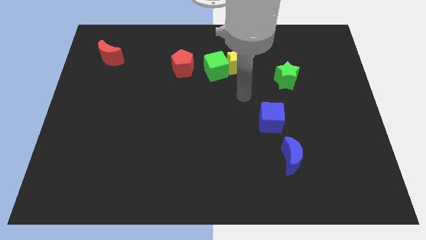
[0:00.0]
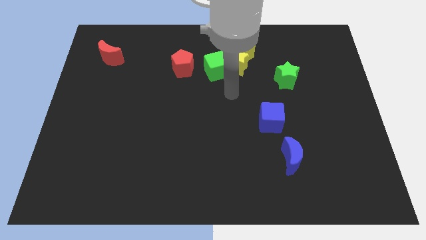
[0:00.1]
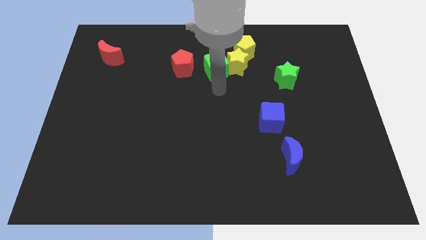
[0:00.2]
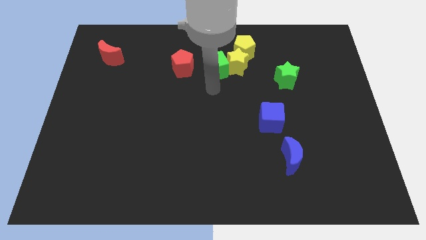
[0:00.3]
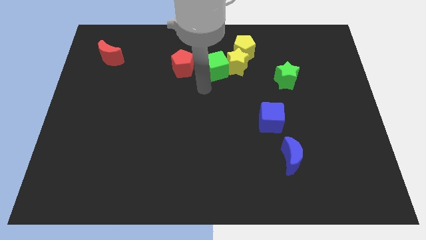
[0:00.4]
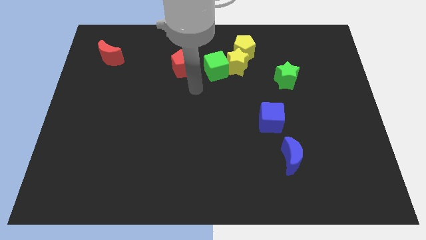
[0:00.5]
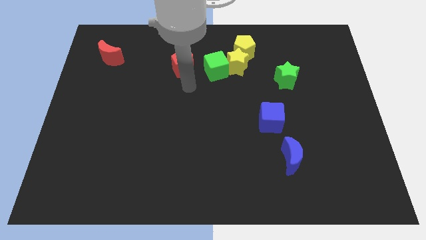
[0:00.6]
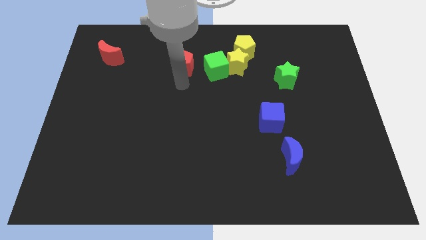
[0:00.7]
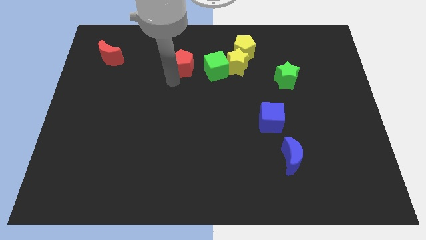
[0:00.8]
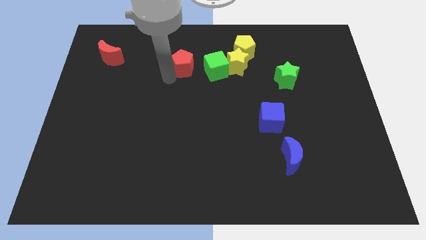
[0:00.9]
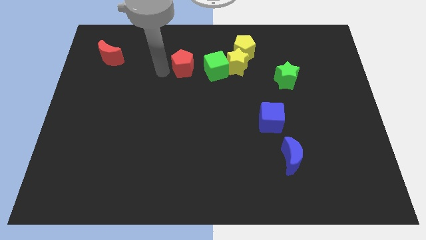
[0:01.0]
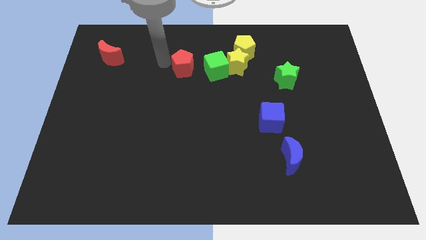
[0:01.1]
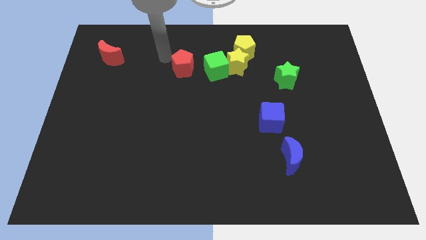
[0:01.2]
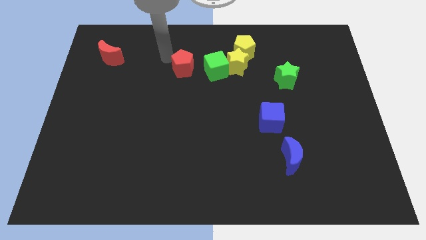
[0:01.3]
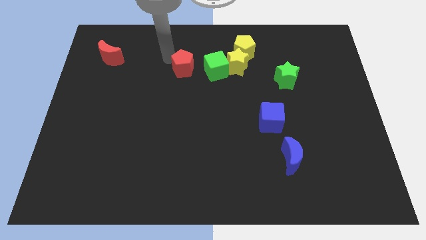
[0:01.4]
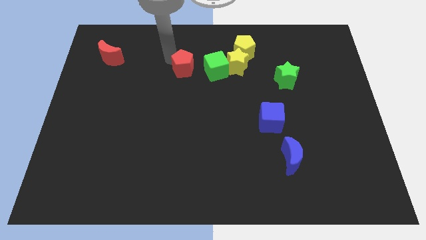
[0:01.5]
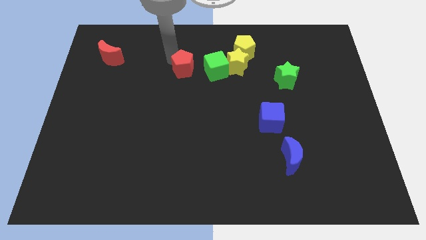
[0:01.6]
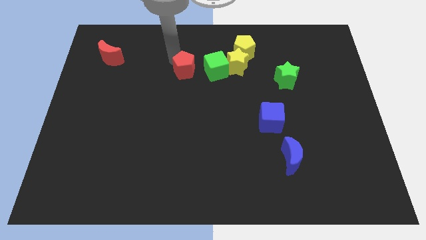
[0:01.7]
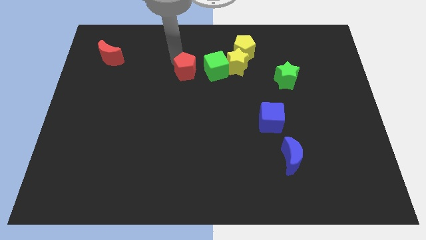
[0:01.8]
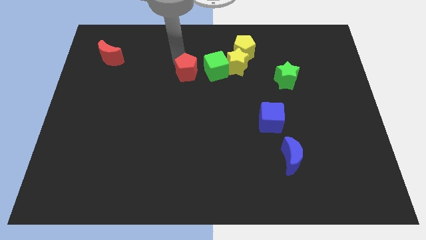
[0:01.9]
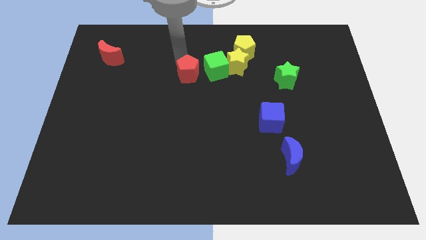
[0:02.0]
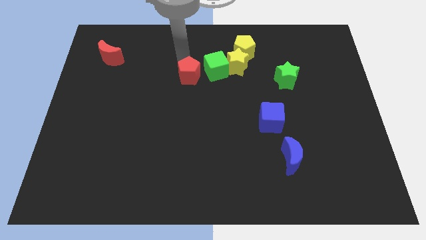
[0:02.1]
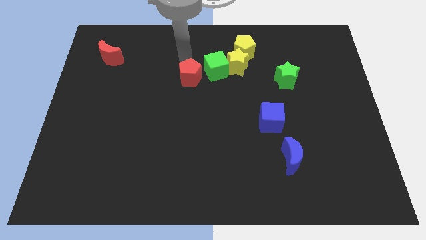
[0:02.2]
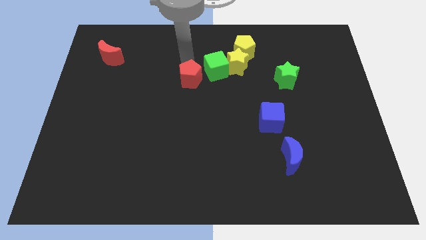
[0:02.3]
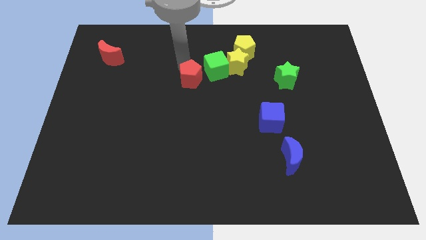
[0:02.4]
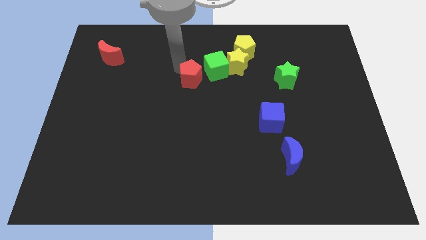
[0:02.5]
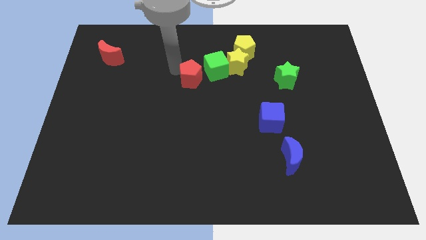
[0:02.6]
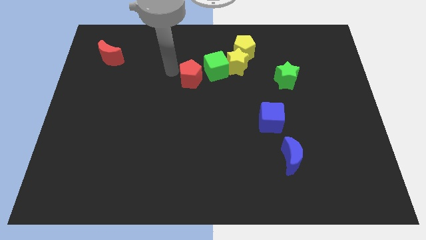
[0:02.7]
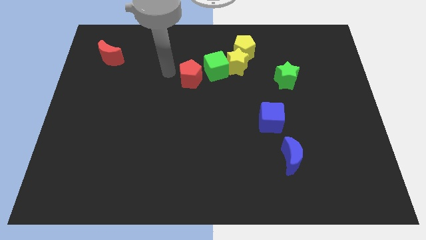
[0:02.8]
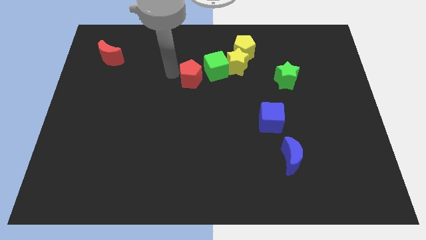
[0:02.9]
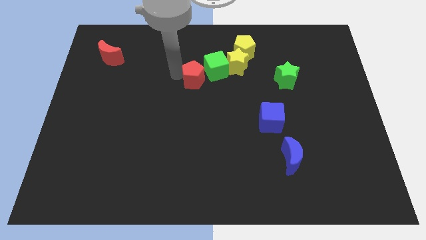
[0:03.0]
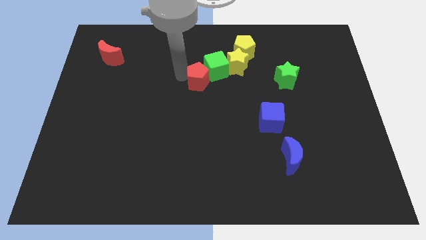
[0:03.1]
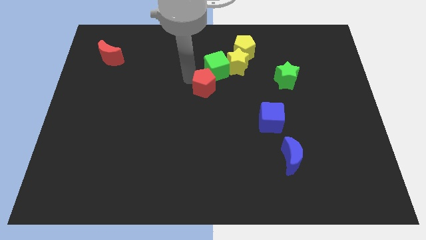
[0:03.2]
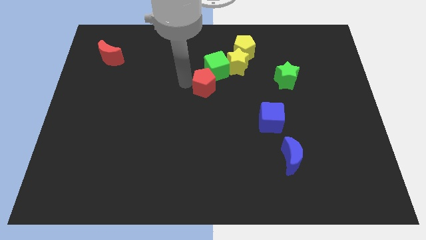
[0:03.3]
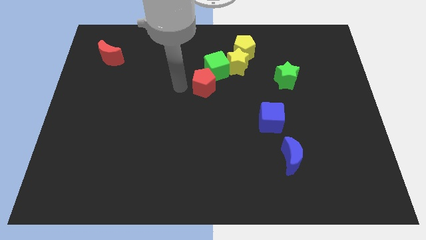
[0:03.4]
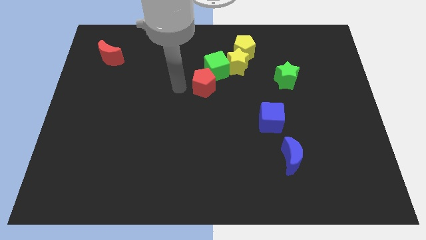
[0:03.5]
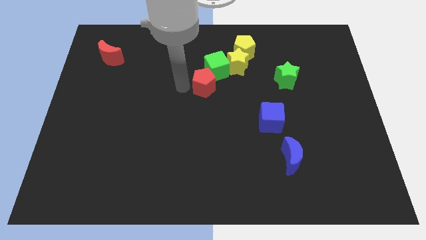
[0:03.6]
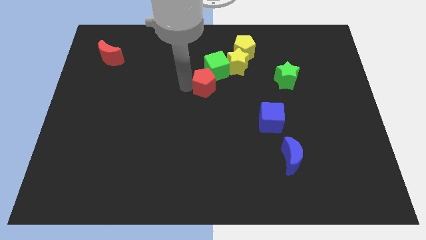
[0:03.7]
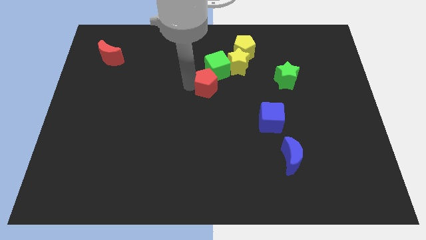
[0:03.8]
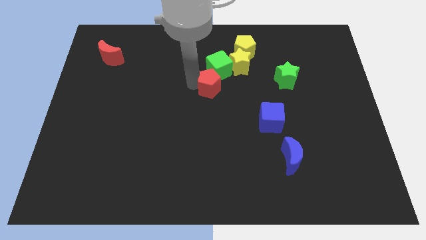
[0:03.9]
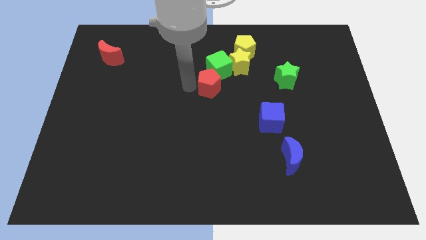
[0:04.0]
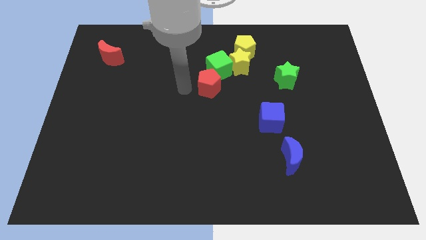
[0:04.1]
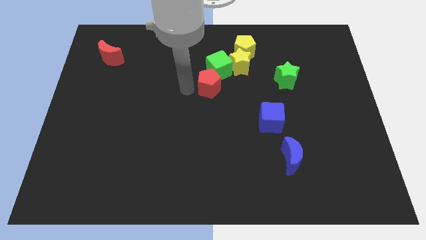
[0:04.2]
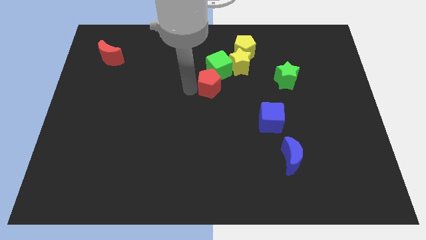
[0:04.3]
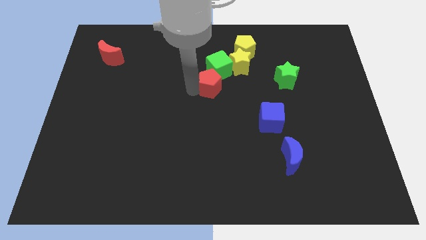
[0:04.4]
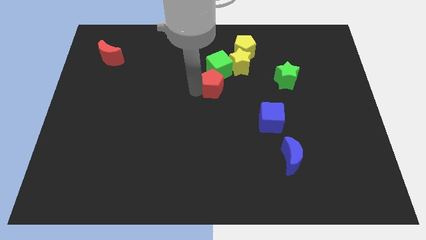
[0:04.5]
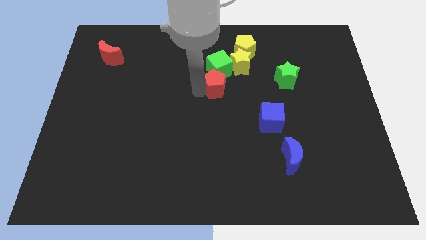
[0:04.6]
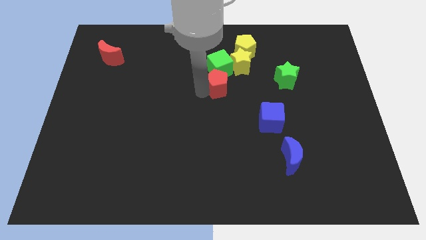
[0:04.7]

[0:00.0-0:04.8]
slide the red pentagon to the bottom right side of the green cube

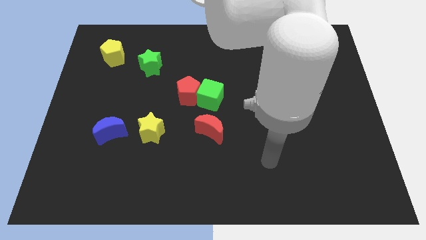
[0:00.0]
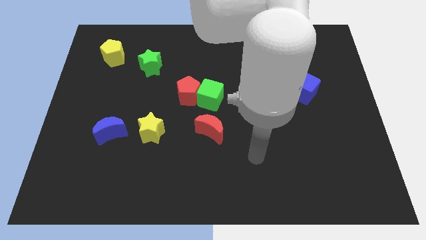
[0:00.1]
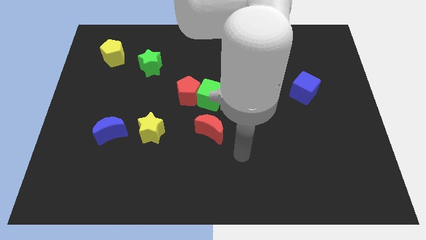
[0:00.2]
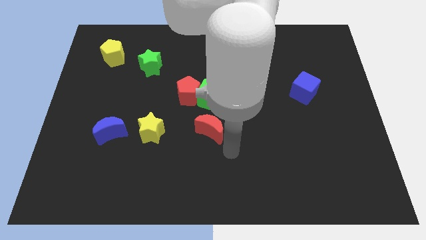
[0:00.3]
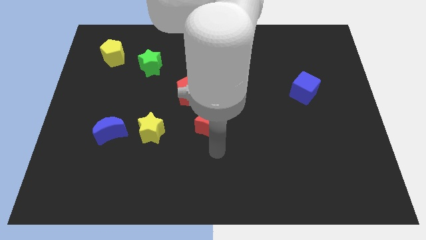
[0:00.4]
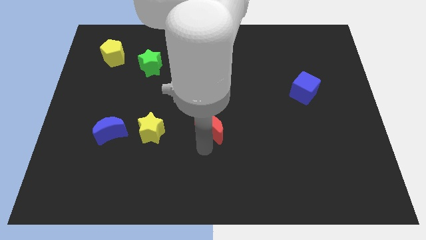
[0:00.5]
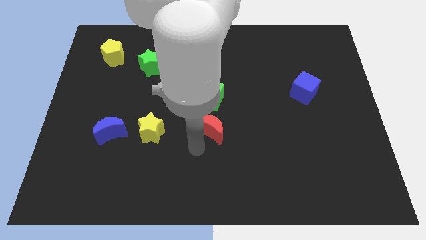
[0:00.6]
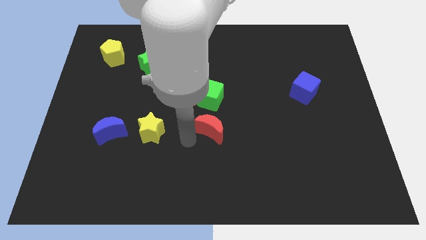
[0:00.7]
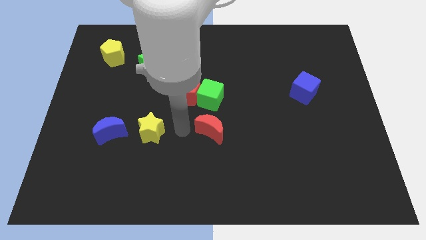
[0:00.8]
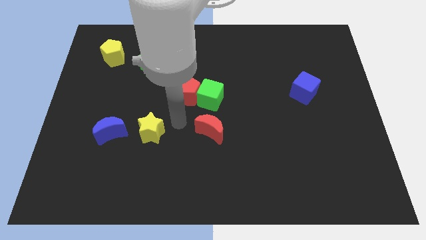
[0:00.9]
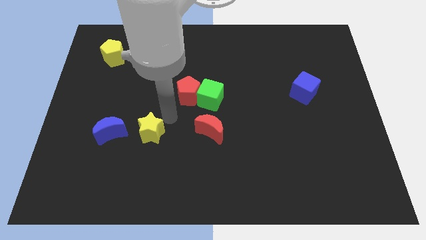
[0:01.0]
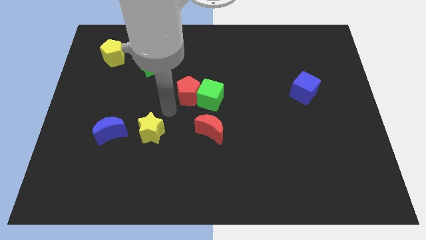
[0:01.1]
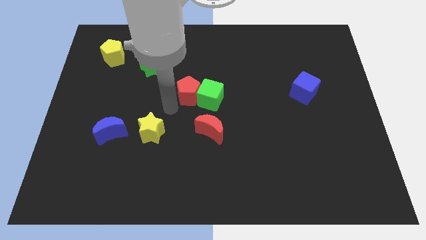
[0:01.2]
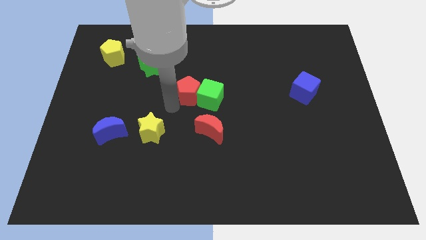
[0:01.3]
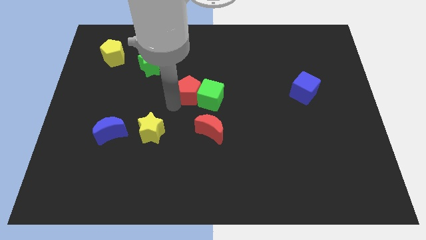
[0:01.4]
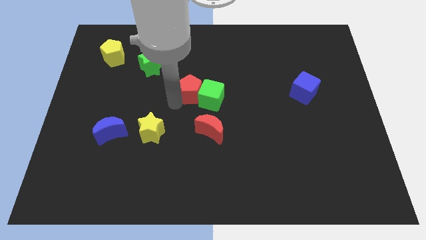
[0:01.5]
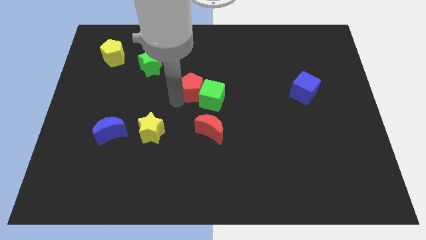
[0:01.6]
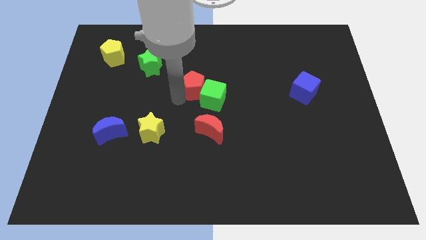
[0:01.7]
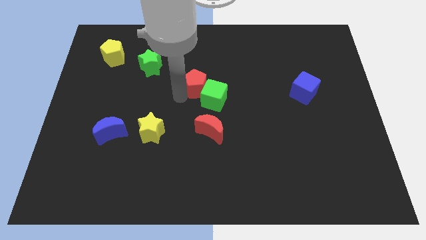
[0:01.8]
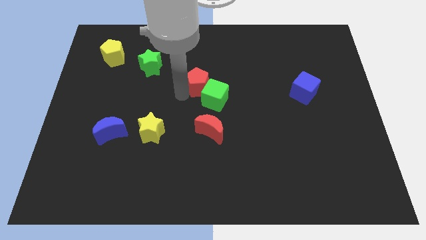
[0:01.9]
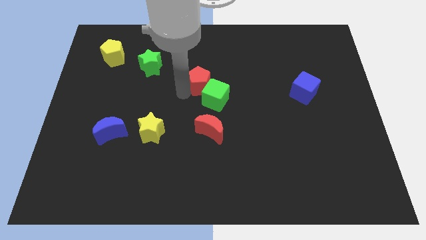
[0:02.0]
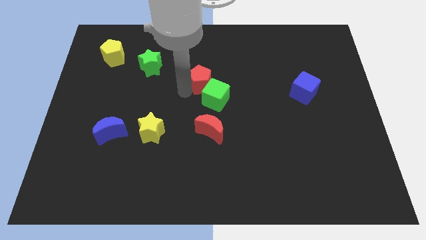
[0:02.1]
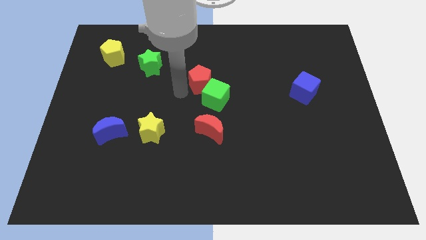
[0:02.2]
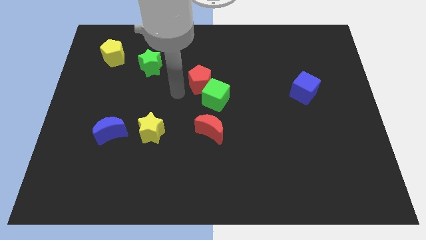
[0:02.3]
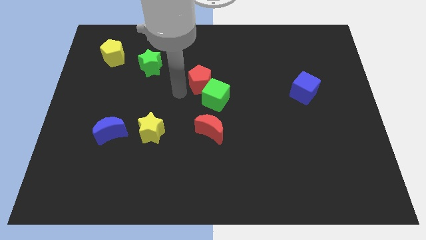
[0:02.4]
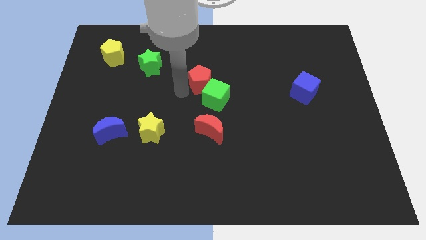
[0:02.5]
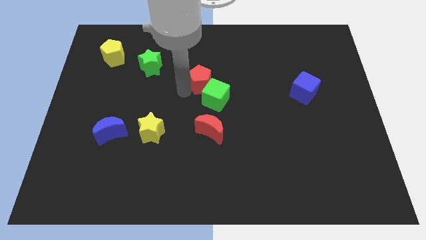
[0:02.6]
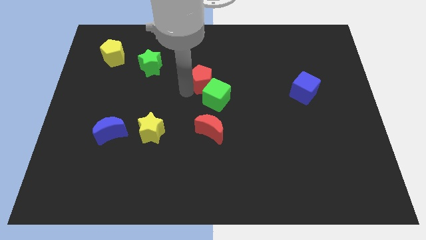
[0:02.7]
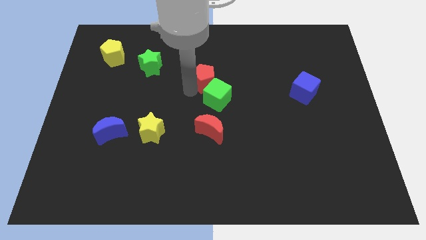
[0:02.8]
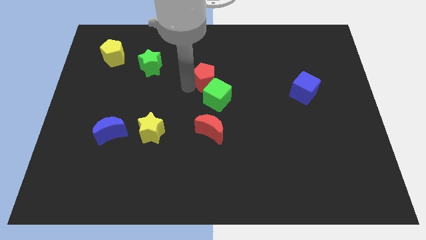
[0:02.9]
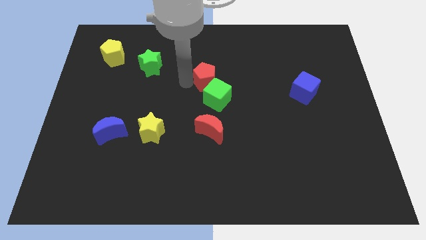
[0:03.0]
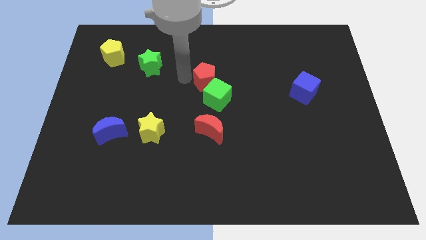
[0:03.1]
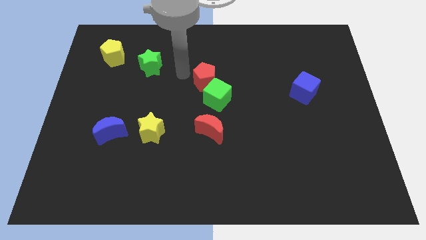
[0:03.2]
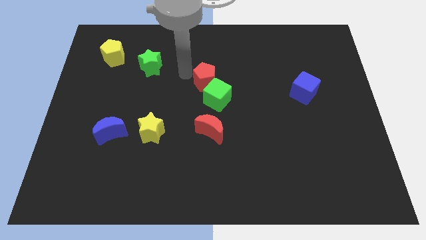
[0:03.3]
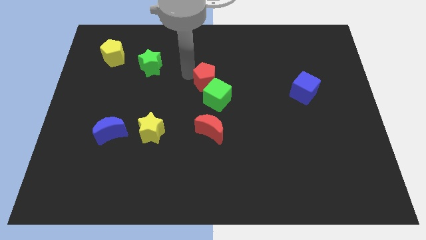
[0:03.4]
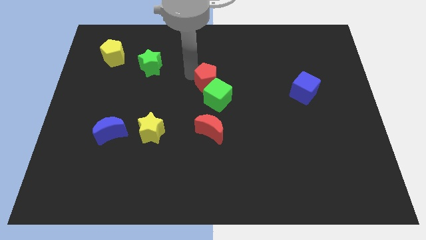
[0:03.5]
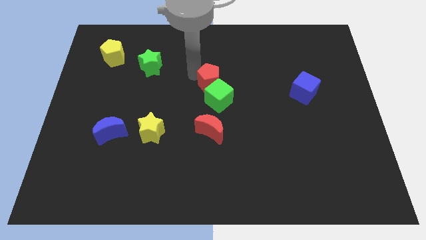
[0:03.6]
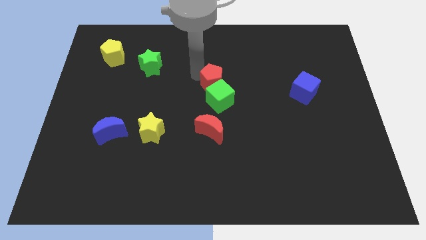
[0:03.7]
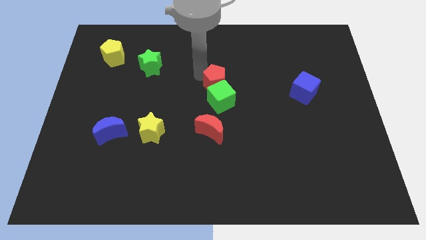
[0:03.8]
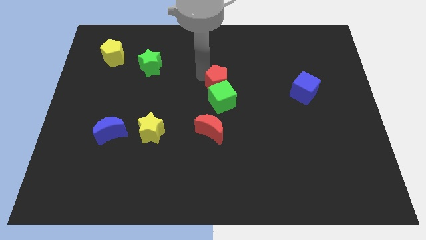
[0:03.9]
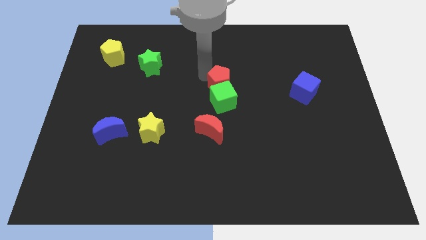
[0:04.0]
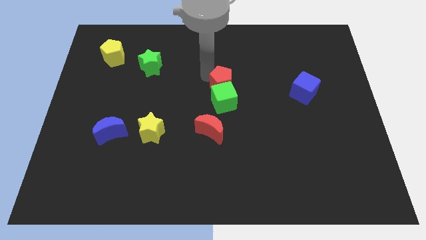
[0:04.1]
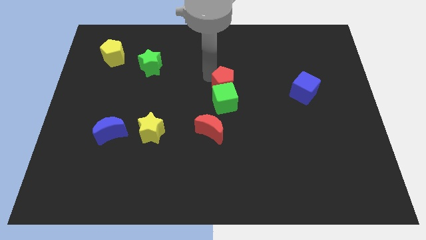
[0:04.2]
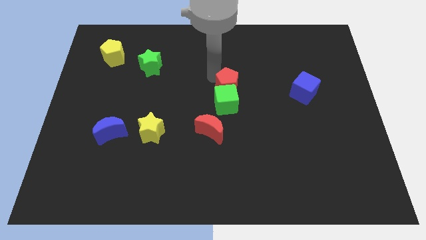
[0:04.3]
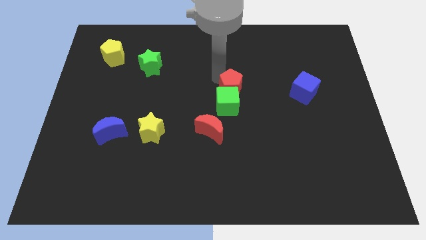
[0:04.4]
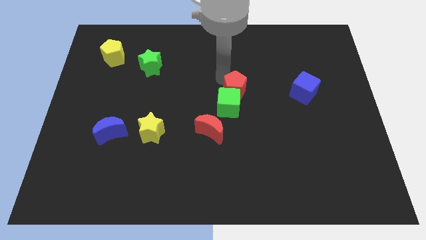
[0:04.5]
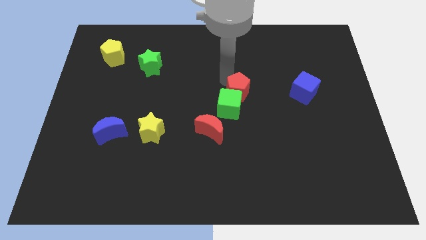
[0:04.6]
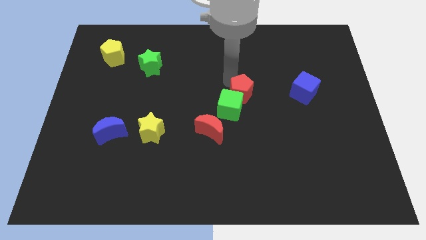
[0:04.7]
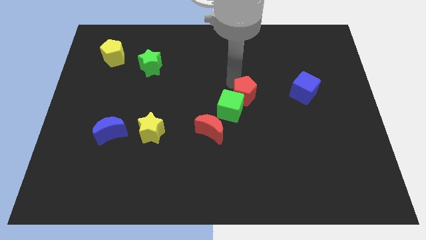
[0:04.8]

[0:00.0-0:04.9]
push the red pentagon right of the green cube
